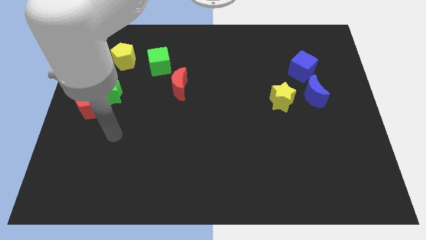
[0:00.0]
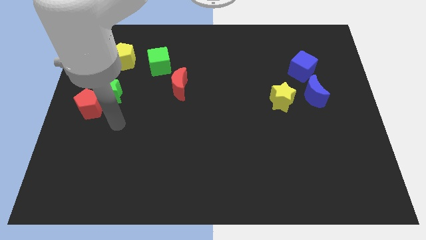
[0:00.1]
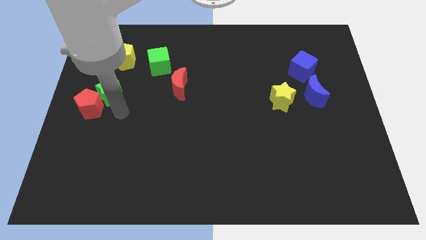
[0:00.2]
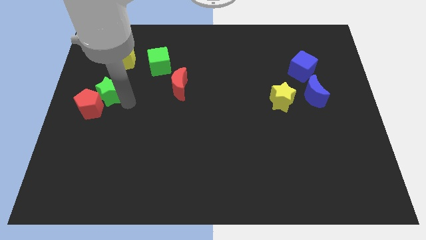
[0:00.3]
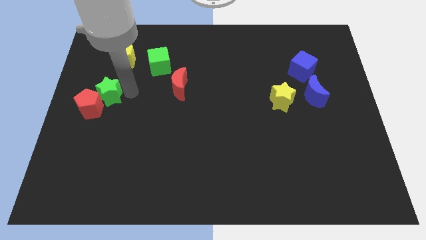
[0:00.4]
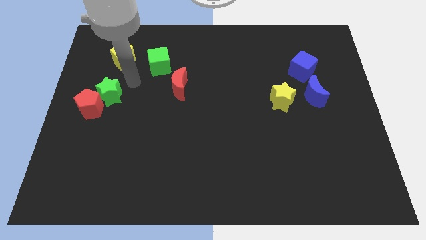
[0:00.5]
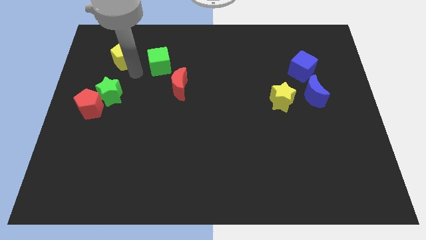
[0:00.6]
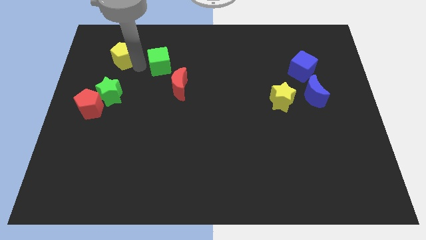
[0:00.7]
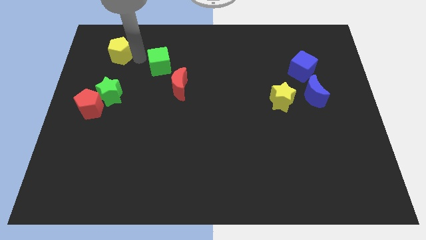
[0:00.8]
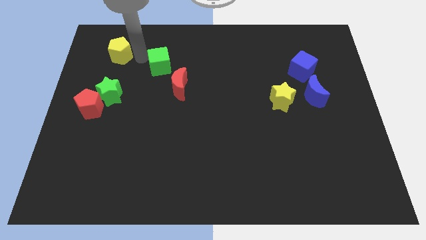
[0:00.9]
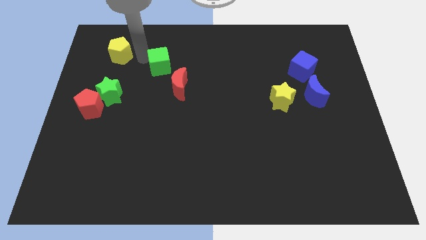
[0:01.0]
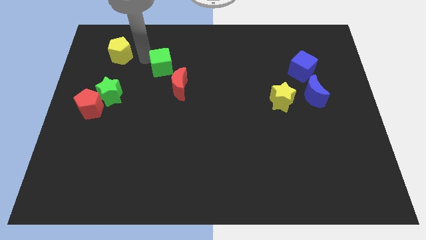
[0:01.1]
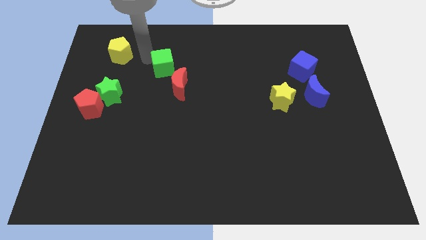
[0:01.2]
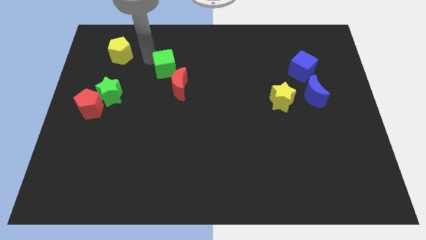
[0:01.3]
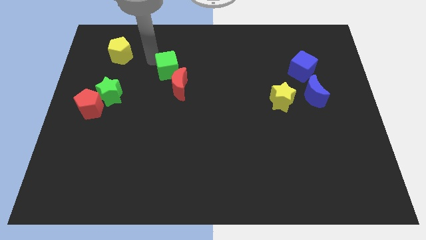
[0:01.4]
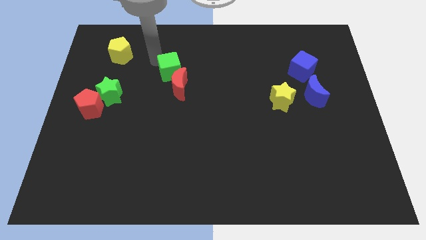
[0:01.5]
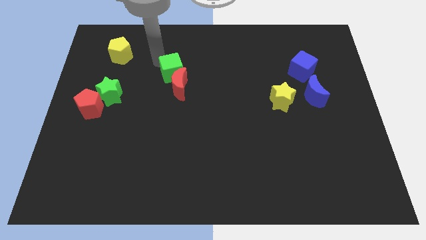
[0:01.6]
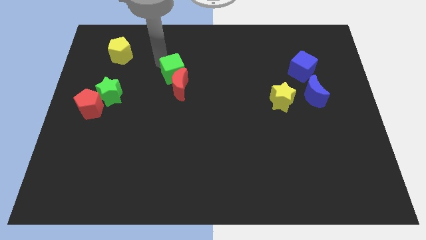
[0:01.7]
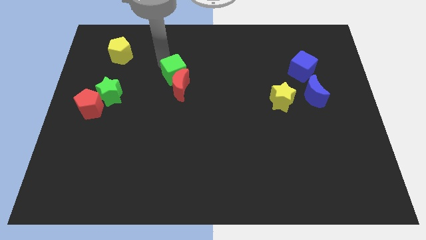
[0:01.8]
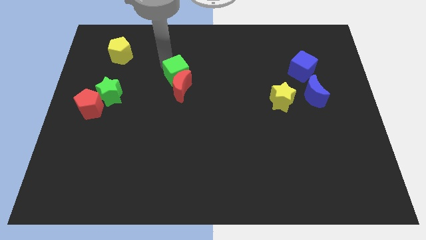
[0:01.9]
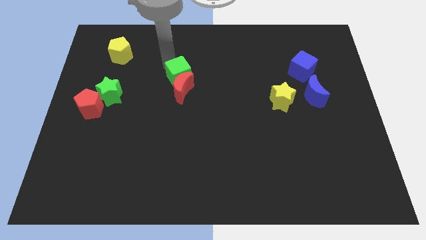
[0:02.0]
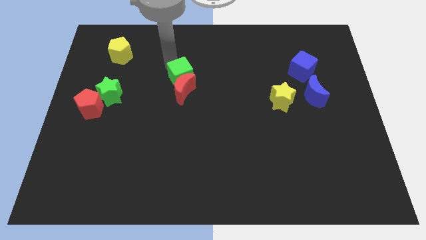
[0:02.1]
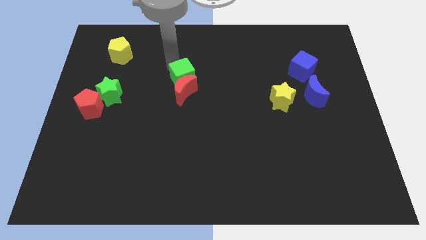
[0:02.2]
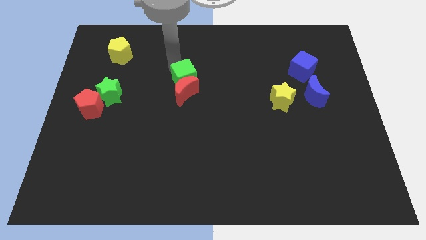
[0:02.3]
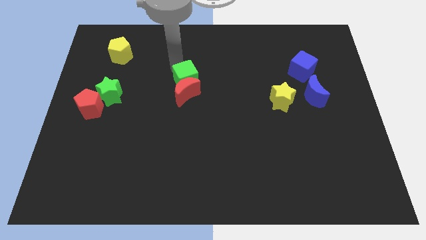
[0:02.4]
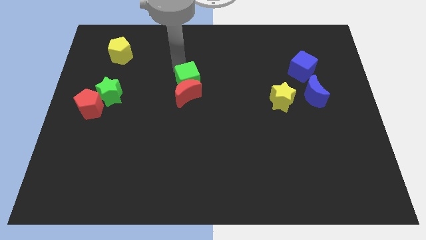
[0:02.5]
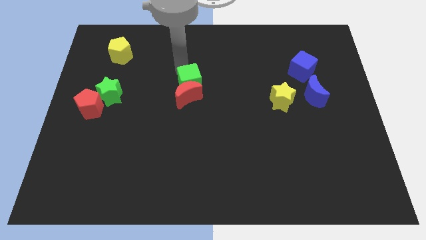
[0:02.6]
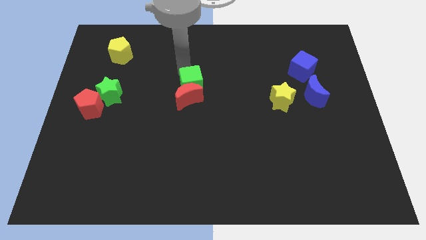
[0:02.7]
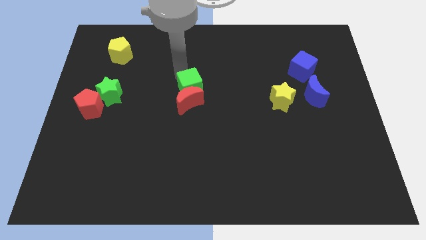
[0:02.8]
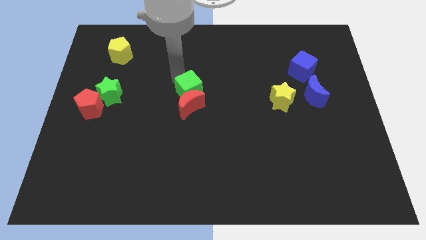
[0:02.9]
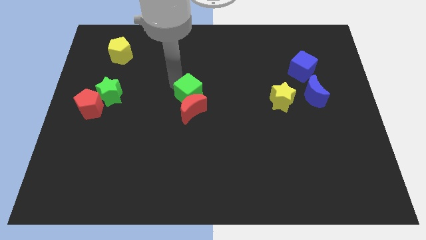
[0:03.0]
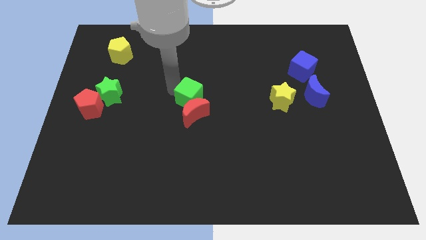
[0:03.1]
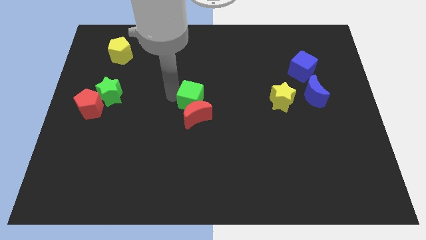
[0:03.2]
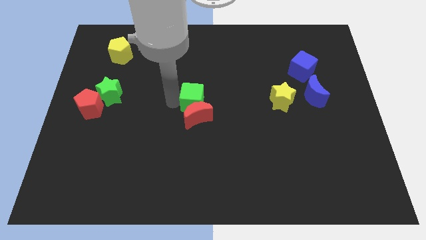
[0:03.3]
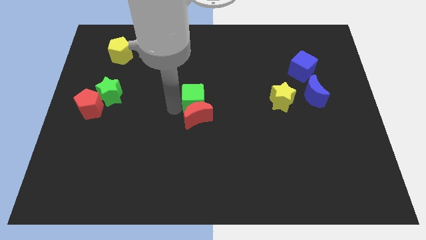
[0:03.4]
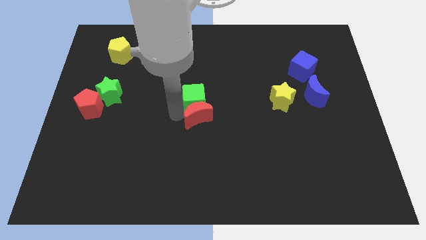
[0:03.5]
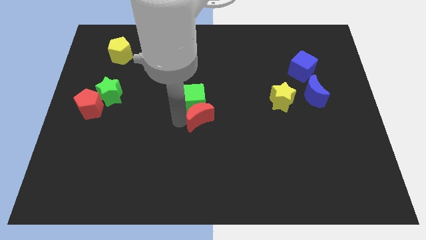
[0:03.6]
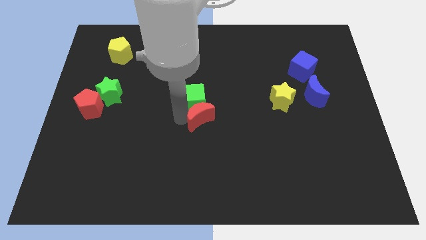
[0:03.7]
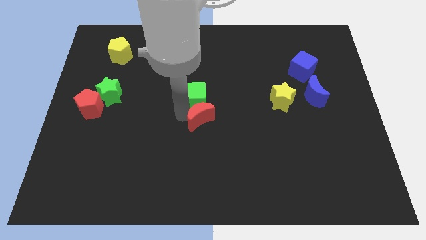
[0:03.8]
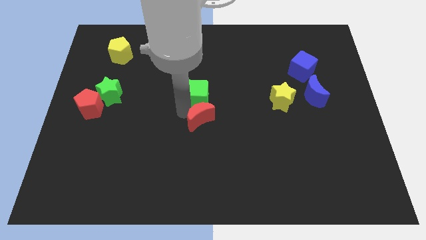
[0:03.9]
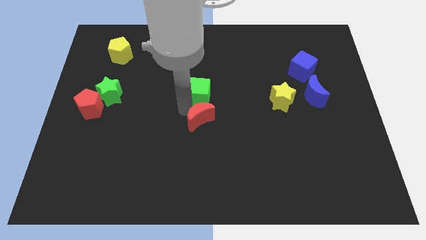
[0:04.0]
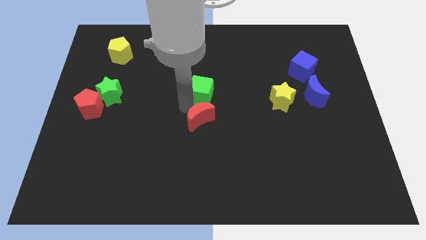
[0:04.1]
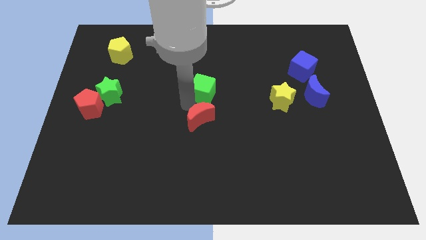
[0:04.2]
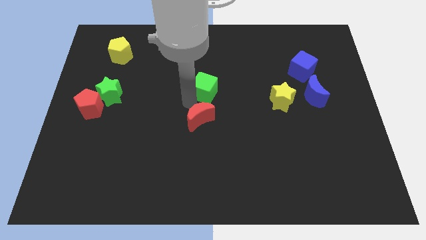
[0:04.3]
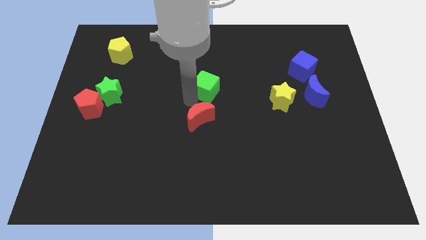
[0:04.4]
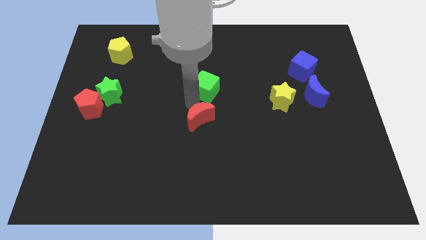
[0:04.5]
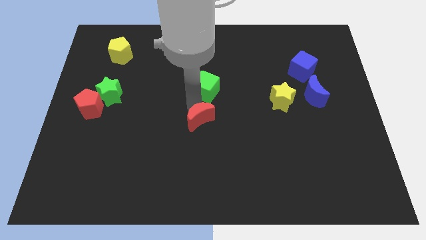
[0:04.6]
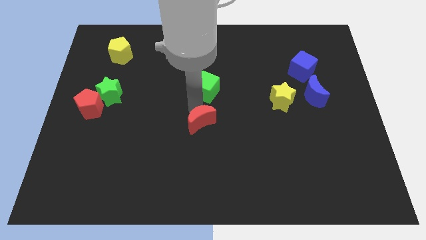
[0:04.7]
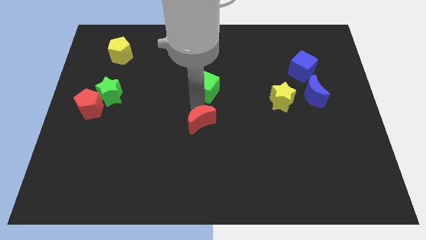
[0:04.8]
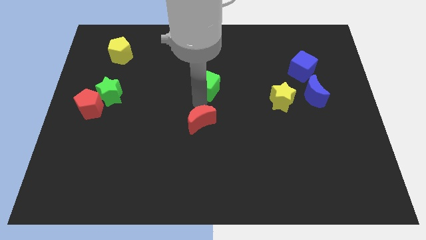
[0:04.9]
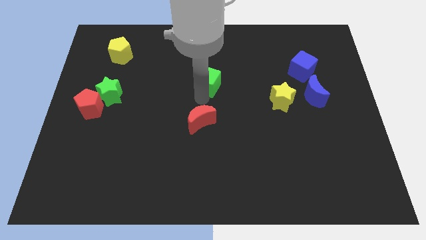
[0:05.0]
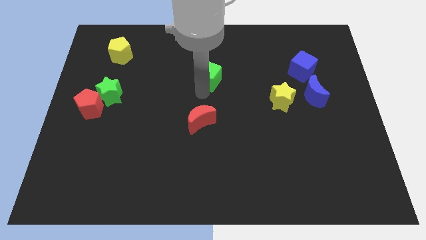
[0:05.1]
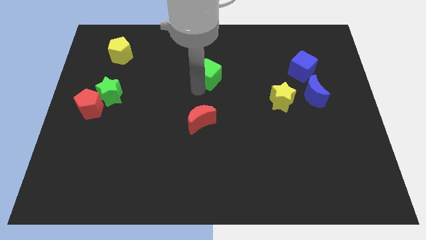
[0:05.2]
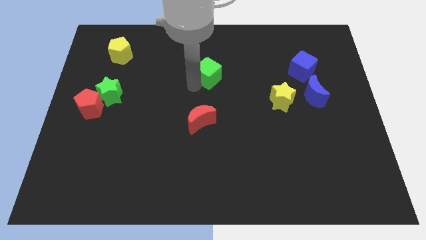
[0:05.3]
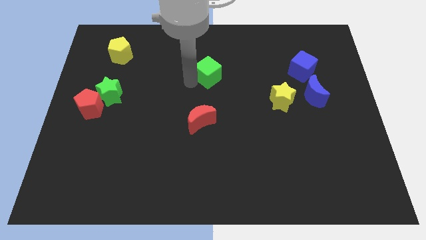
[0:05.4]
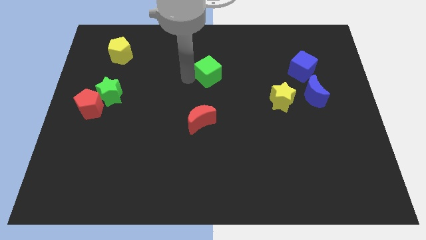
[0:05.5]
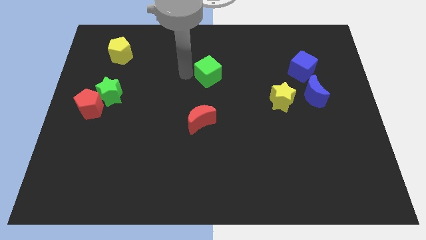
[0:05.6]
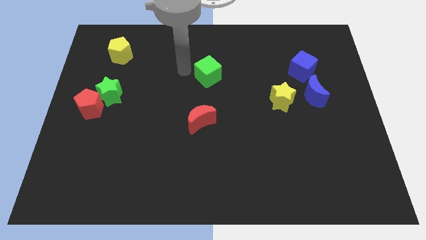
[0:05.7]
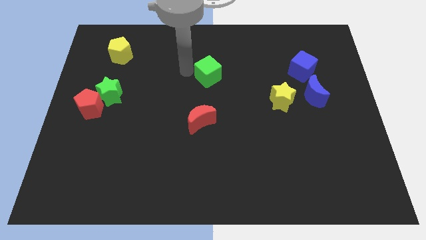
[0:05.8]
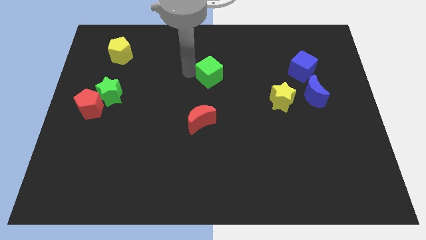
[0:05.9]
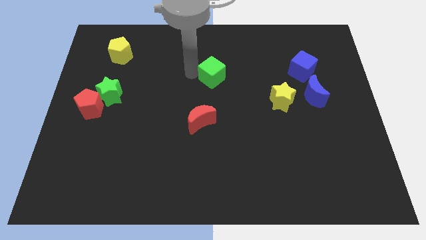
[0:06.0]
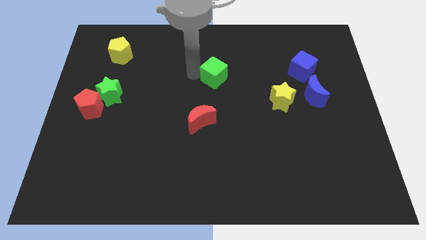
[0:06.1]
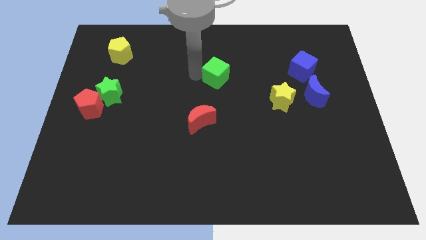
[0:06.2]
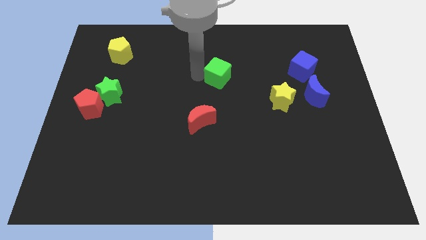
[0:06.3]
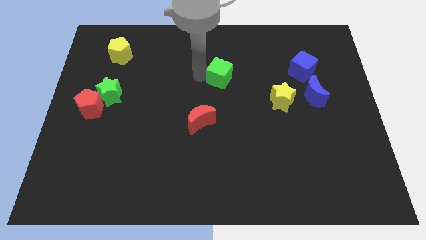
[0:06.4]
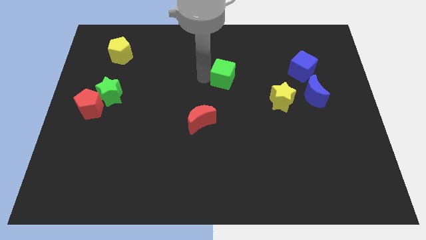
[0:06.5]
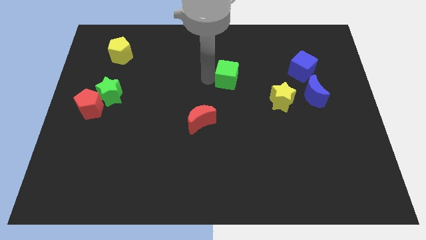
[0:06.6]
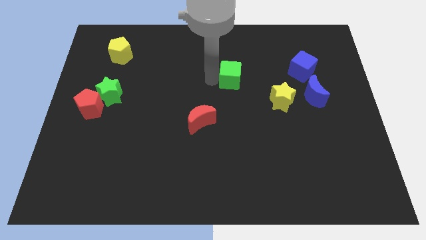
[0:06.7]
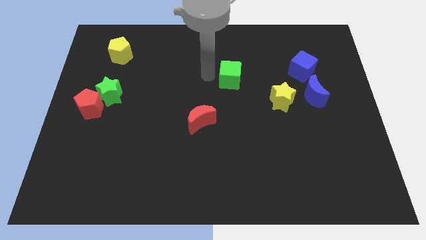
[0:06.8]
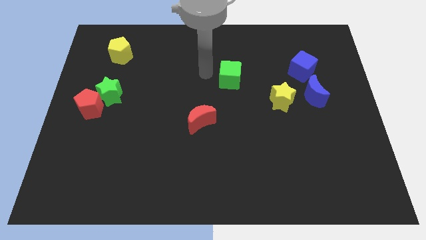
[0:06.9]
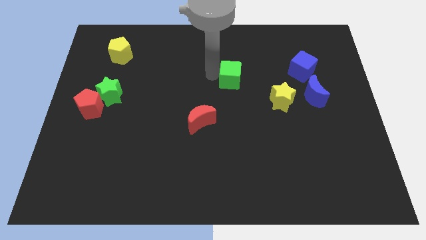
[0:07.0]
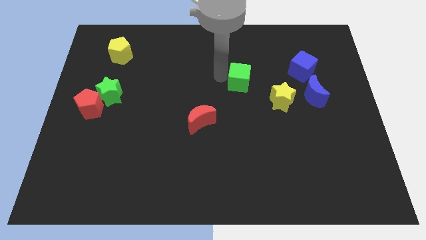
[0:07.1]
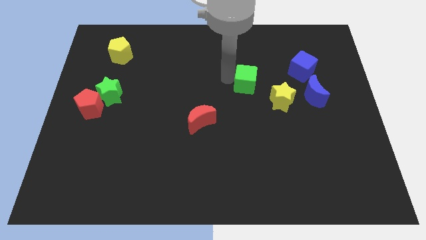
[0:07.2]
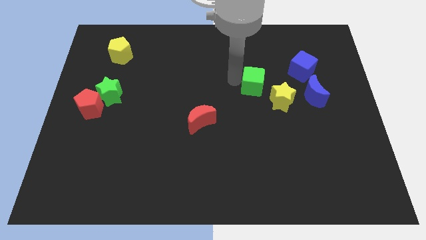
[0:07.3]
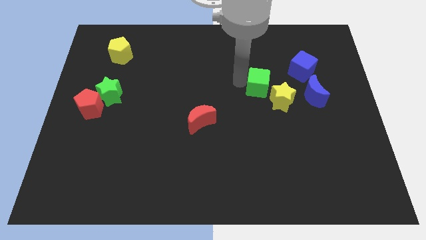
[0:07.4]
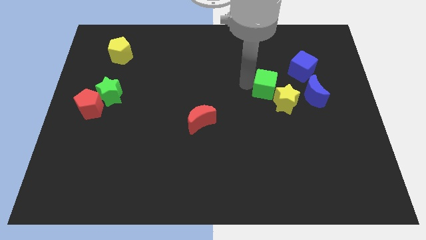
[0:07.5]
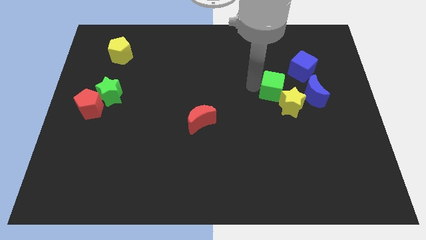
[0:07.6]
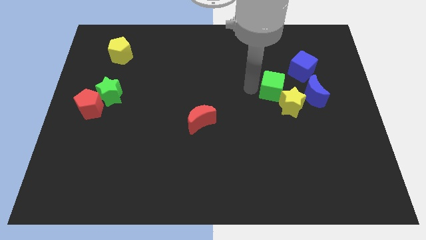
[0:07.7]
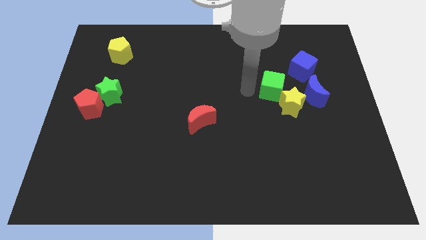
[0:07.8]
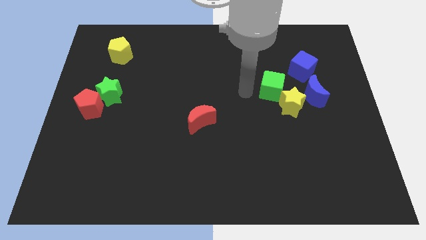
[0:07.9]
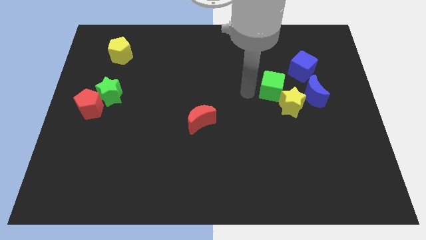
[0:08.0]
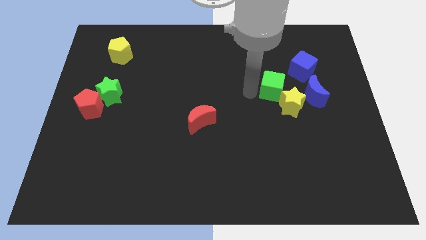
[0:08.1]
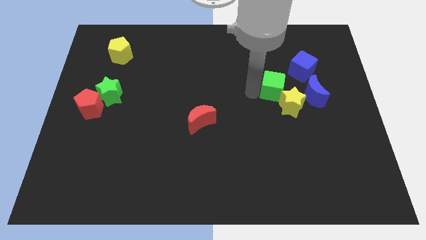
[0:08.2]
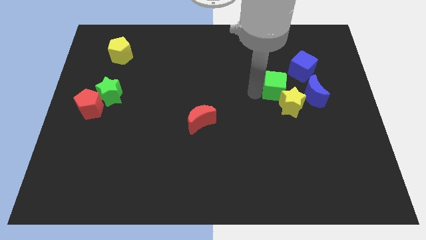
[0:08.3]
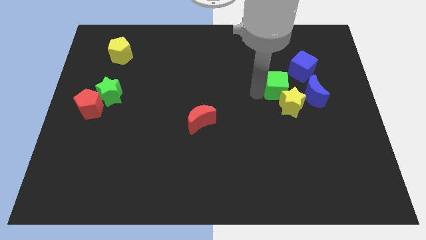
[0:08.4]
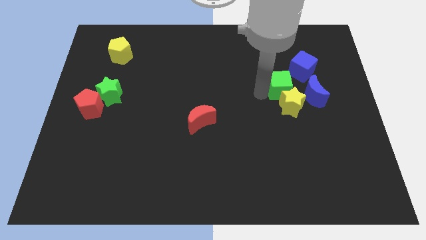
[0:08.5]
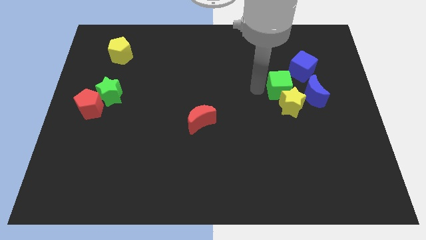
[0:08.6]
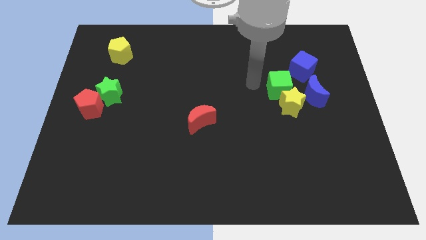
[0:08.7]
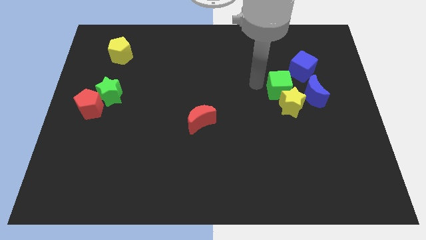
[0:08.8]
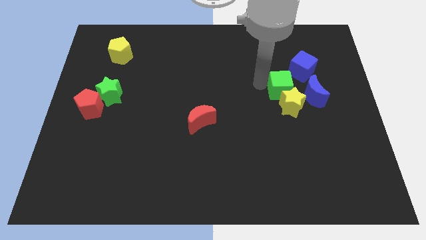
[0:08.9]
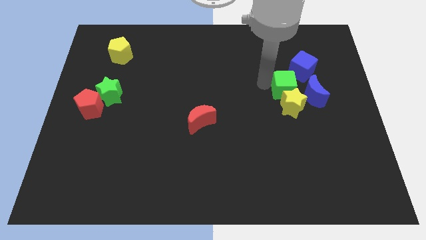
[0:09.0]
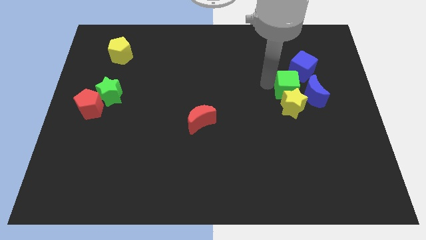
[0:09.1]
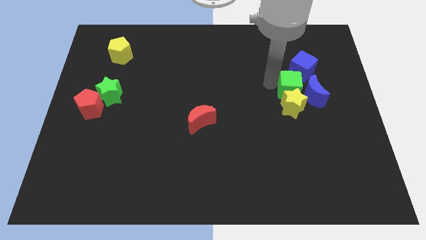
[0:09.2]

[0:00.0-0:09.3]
slide the green cube close to the blue moon
